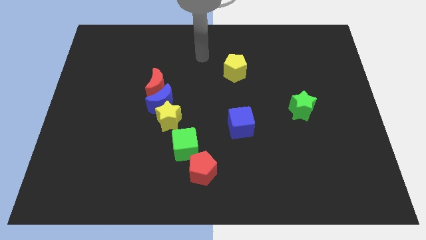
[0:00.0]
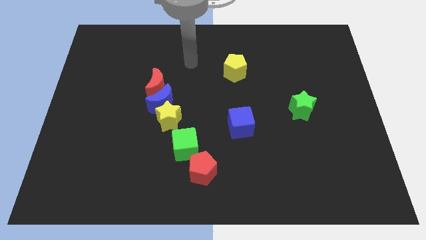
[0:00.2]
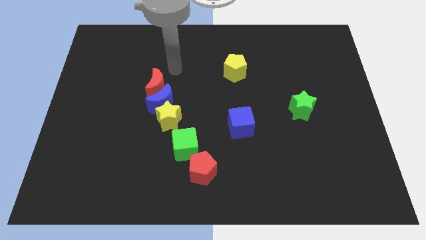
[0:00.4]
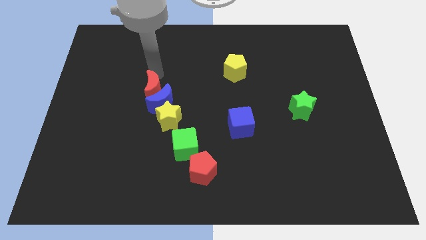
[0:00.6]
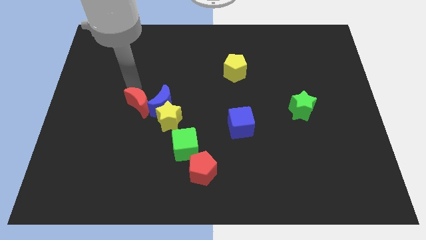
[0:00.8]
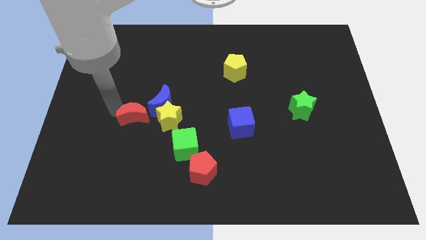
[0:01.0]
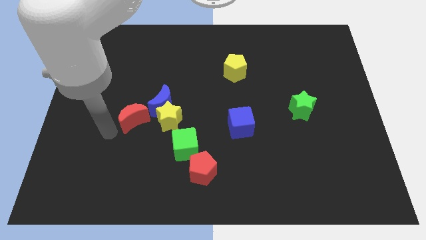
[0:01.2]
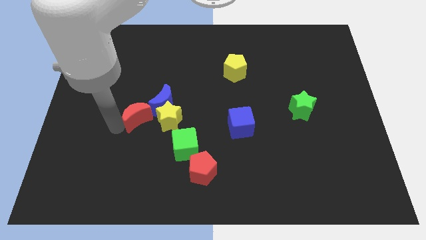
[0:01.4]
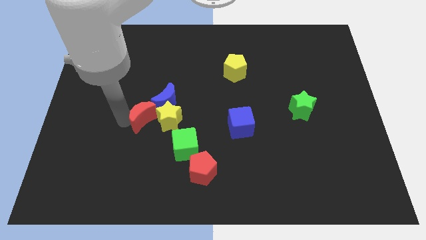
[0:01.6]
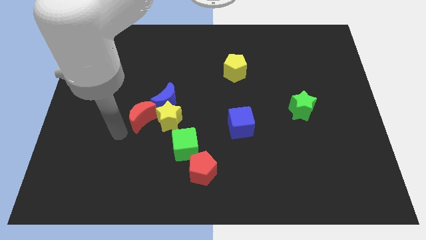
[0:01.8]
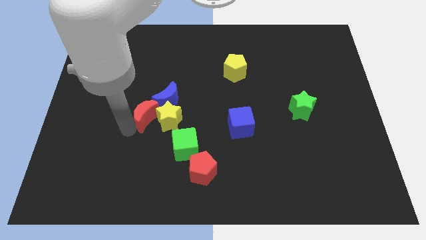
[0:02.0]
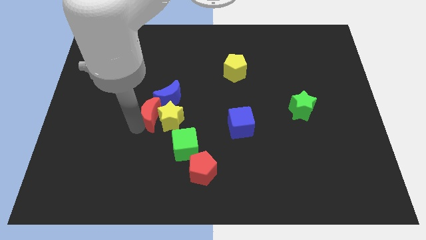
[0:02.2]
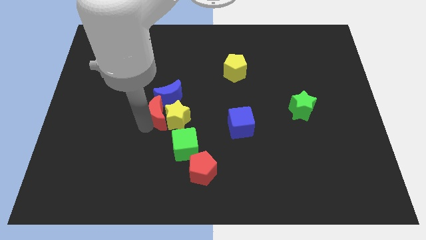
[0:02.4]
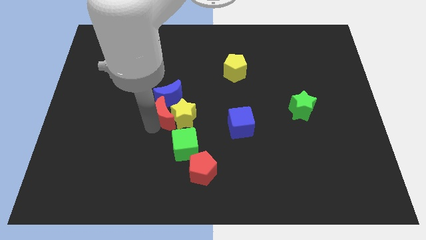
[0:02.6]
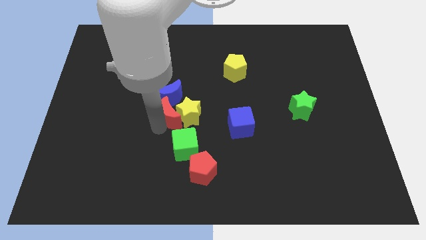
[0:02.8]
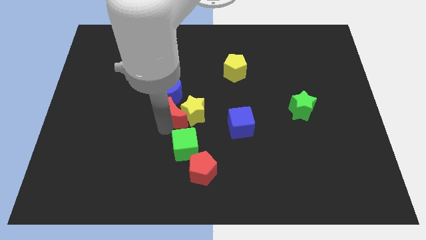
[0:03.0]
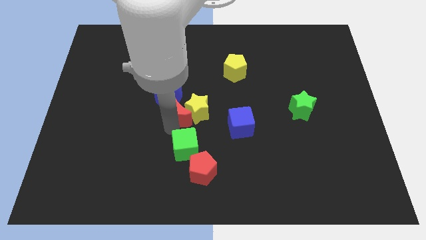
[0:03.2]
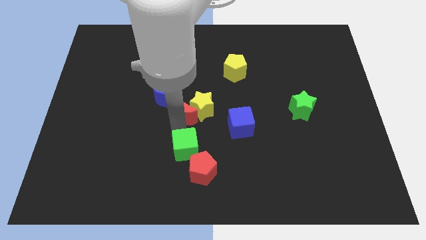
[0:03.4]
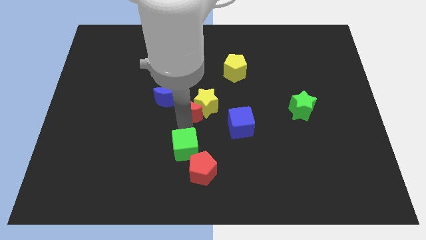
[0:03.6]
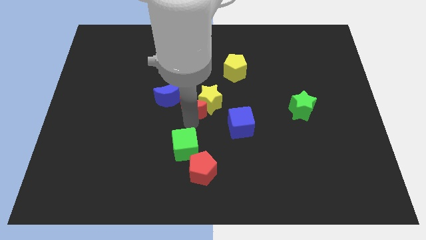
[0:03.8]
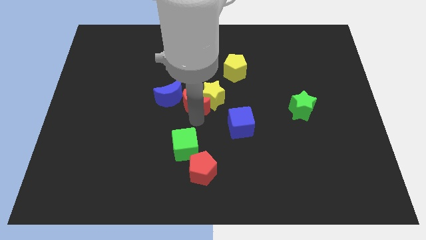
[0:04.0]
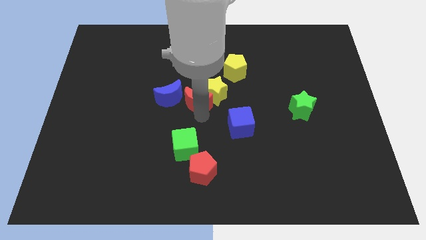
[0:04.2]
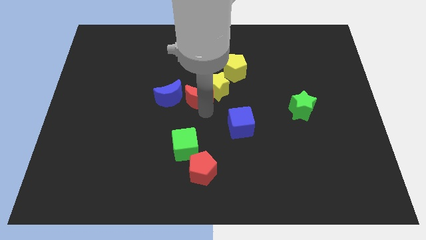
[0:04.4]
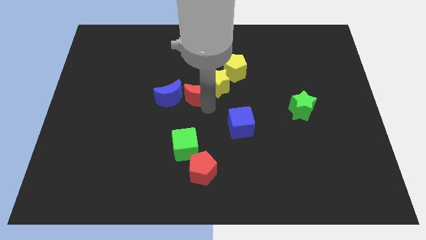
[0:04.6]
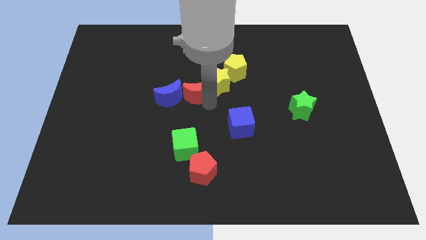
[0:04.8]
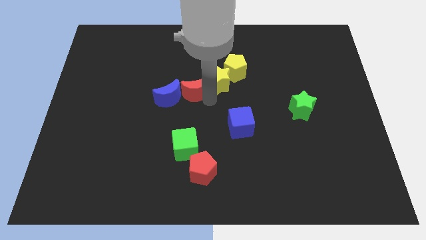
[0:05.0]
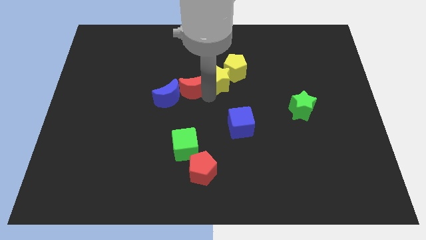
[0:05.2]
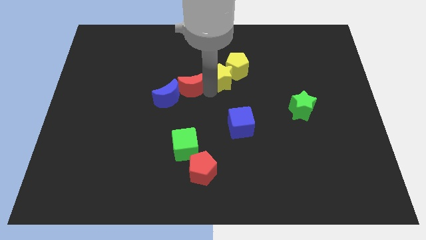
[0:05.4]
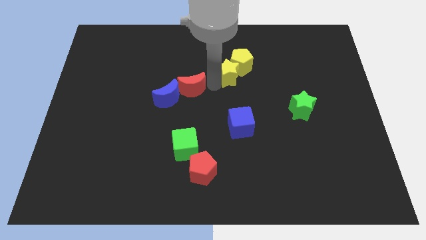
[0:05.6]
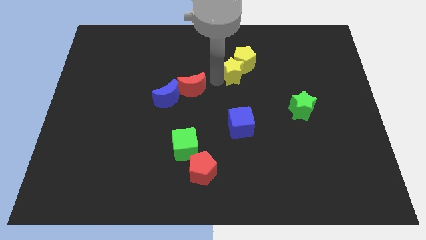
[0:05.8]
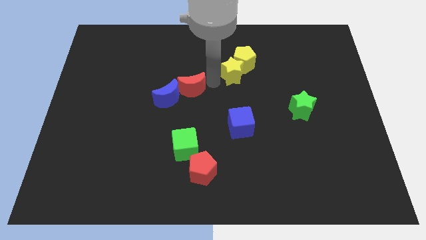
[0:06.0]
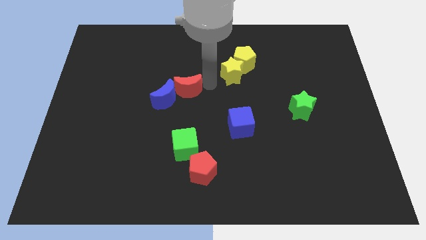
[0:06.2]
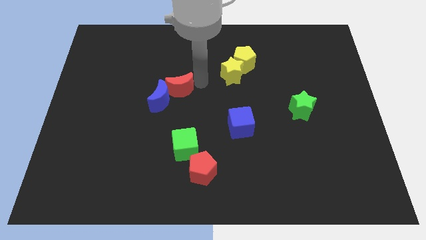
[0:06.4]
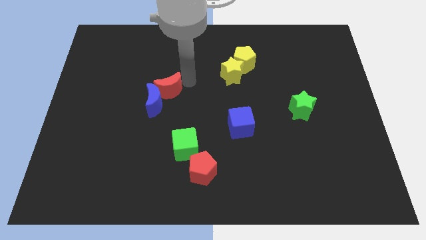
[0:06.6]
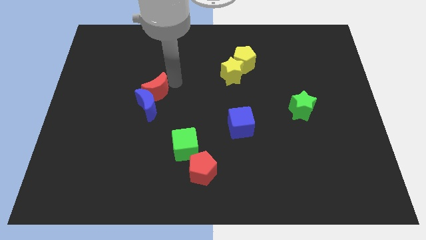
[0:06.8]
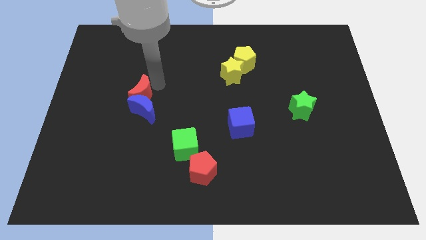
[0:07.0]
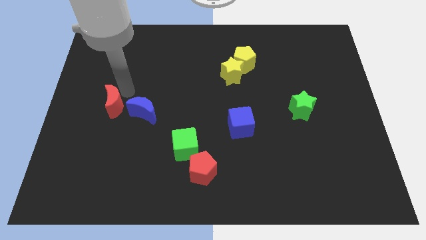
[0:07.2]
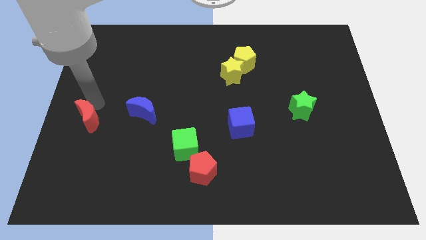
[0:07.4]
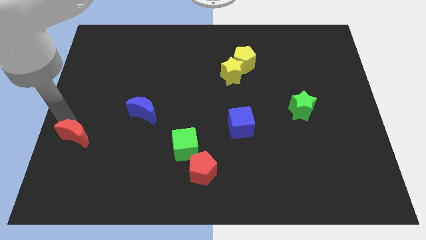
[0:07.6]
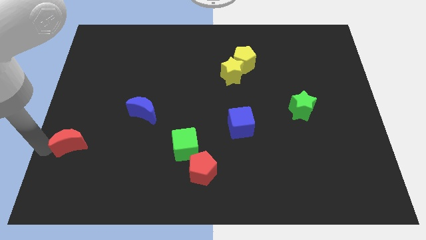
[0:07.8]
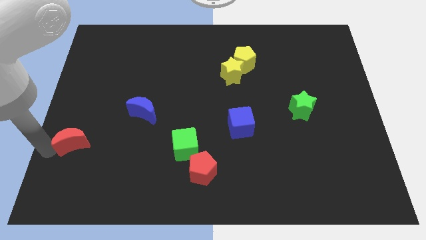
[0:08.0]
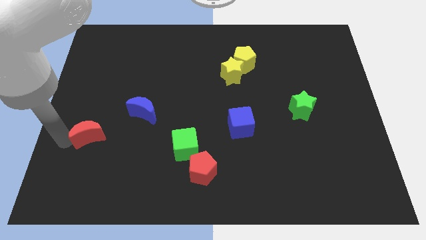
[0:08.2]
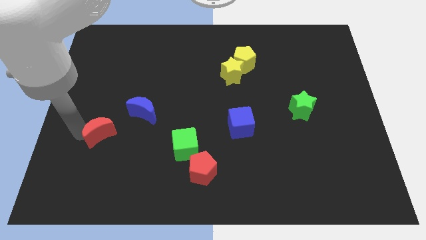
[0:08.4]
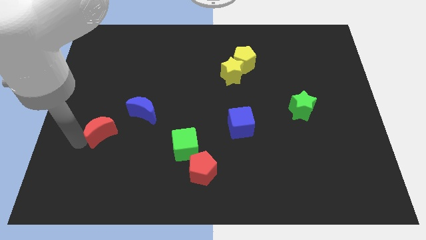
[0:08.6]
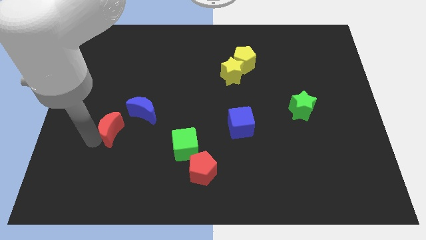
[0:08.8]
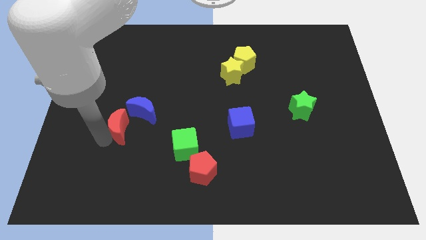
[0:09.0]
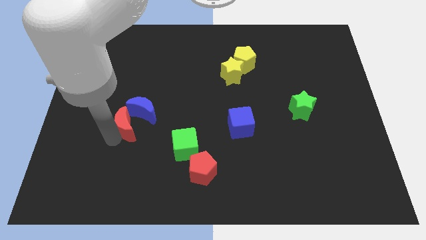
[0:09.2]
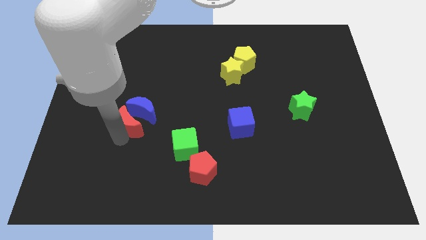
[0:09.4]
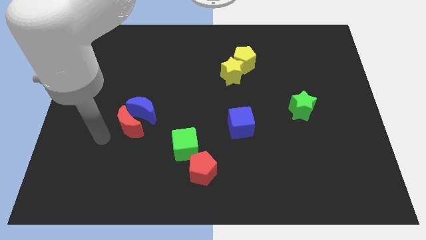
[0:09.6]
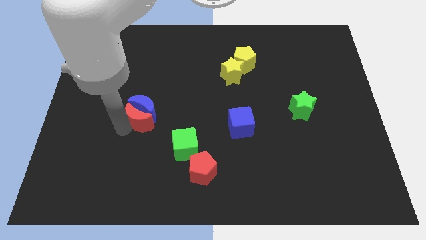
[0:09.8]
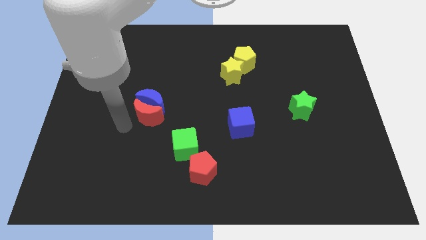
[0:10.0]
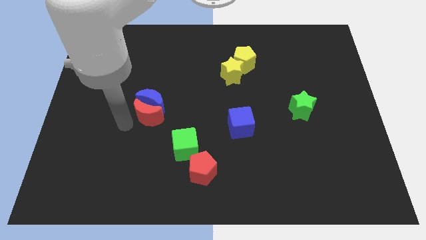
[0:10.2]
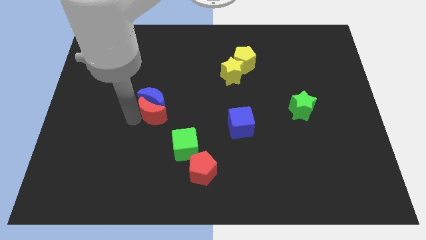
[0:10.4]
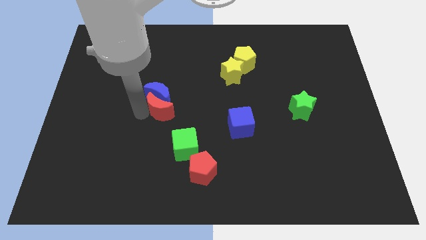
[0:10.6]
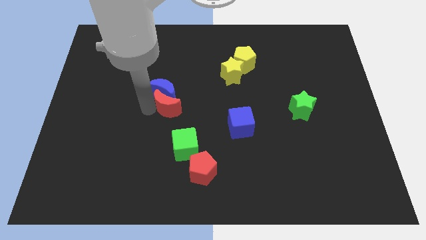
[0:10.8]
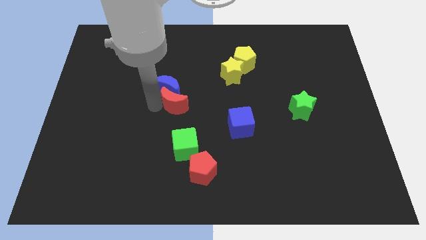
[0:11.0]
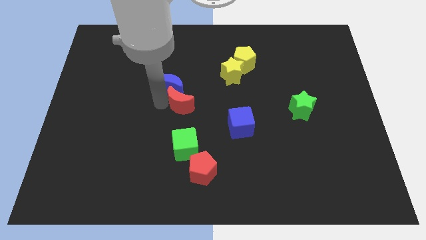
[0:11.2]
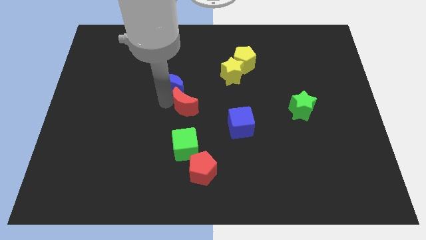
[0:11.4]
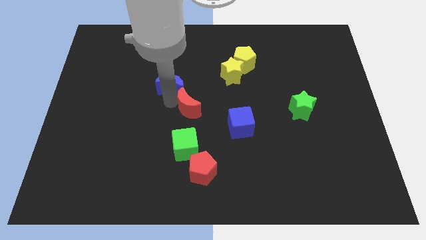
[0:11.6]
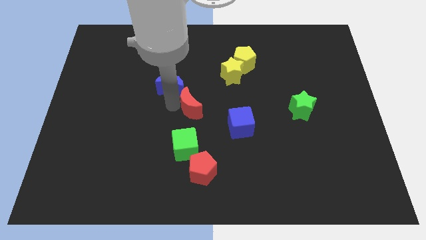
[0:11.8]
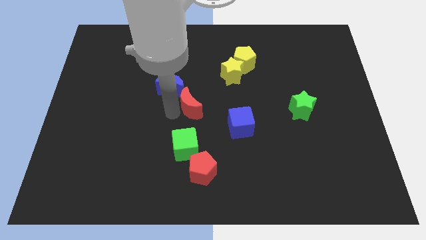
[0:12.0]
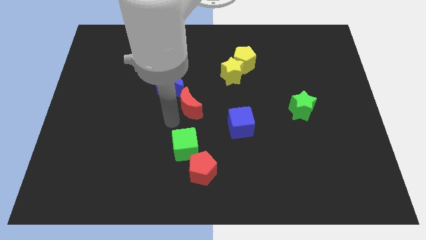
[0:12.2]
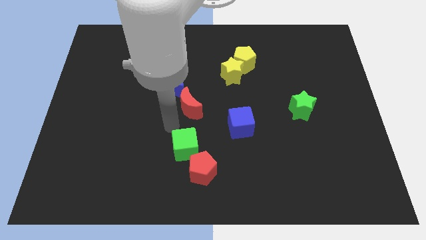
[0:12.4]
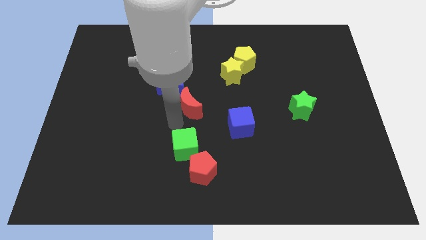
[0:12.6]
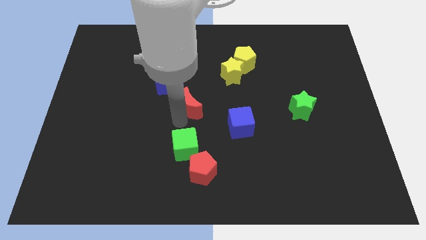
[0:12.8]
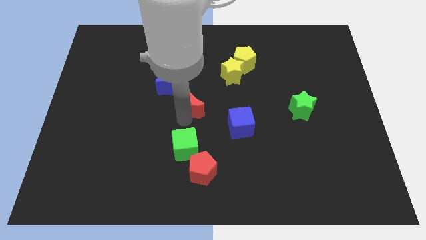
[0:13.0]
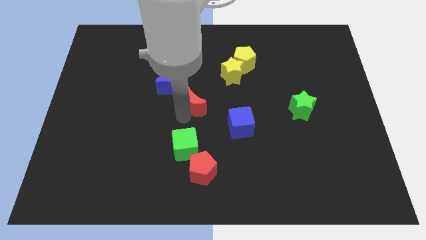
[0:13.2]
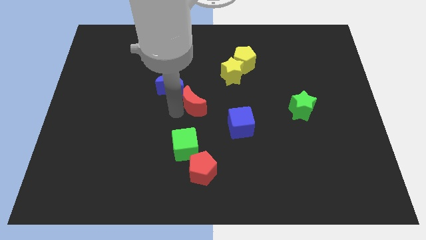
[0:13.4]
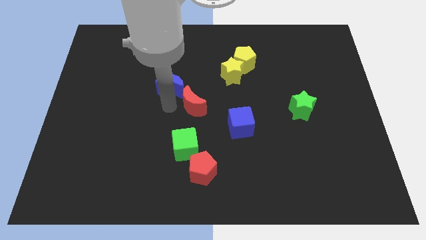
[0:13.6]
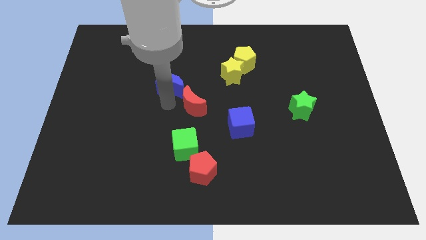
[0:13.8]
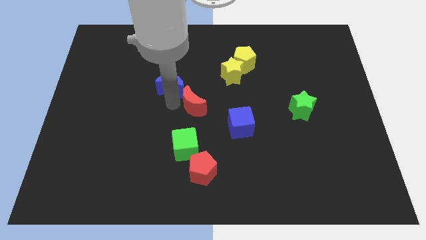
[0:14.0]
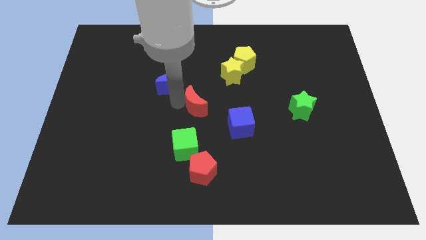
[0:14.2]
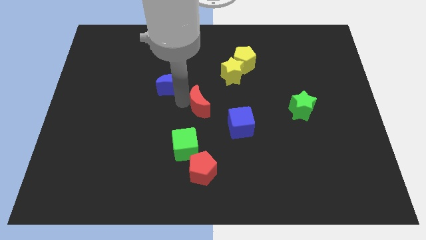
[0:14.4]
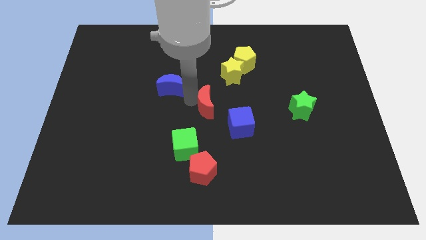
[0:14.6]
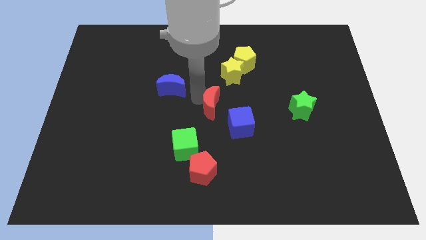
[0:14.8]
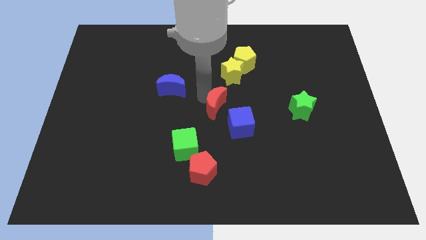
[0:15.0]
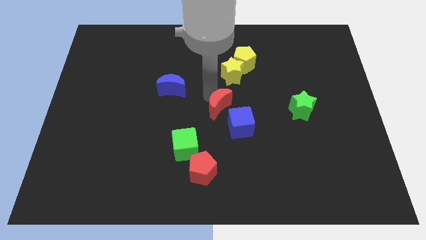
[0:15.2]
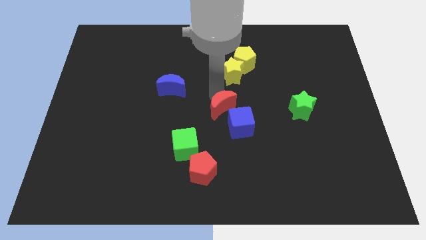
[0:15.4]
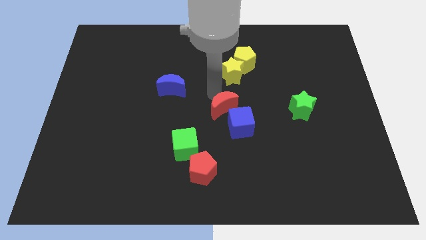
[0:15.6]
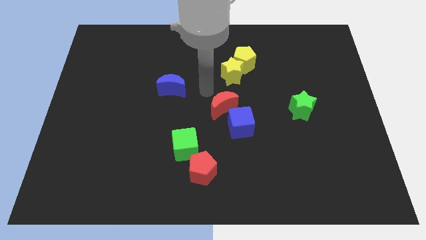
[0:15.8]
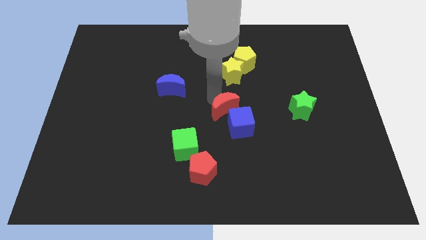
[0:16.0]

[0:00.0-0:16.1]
move the red moon close to the blue cube
